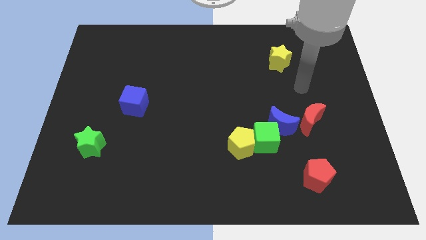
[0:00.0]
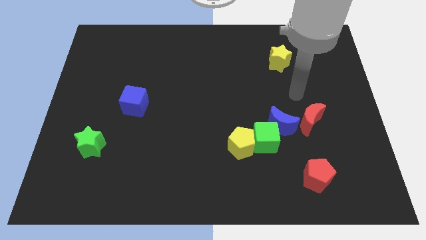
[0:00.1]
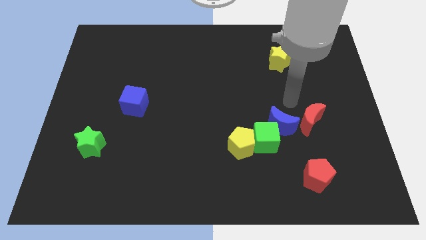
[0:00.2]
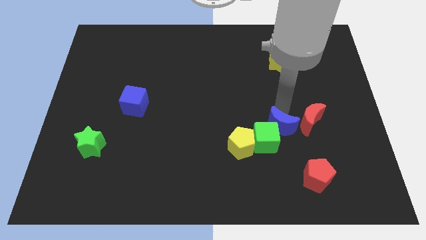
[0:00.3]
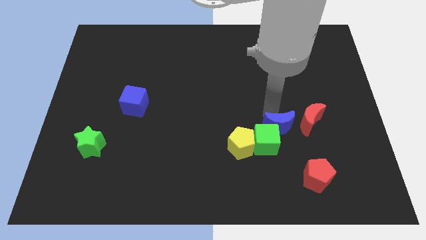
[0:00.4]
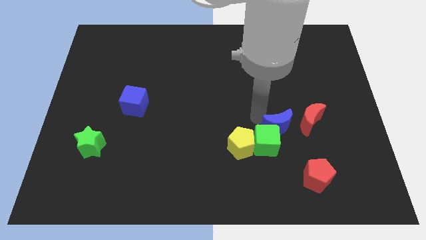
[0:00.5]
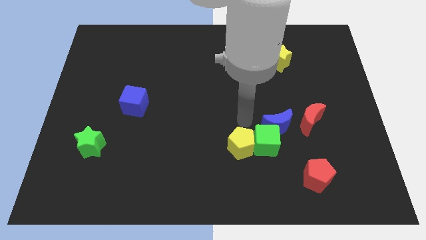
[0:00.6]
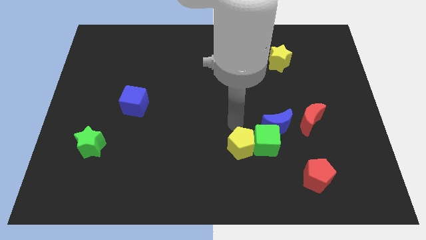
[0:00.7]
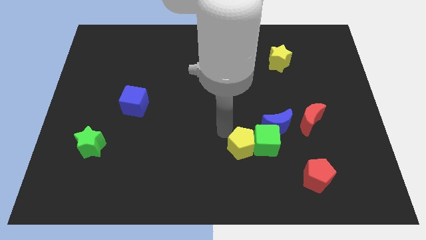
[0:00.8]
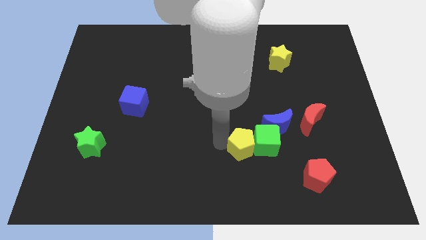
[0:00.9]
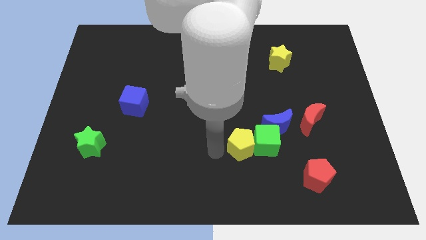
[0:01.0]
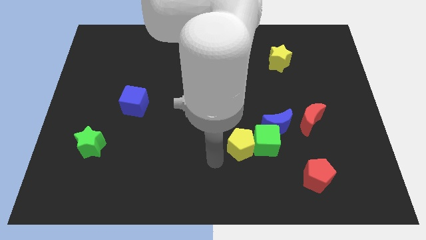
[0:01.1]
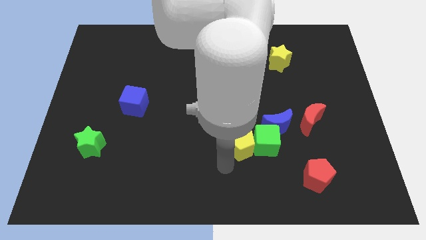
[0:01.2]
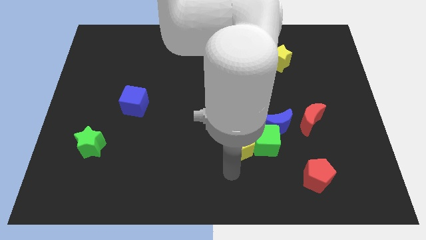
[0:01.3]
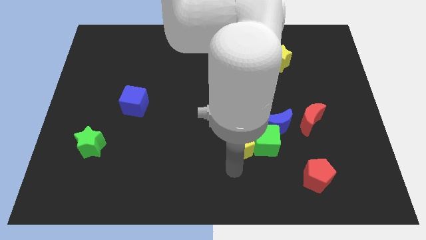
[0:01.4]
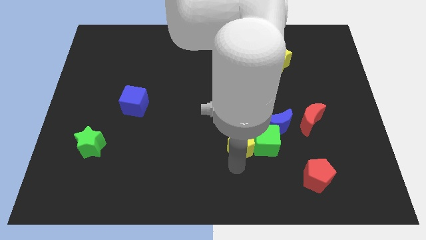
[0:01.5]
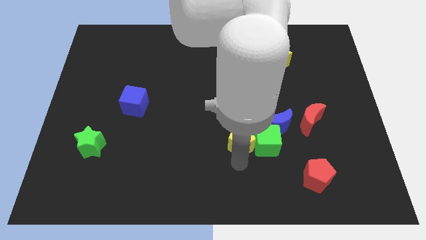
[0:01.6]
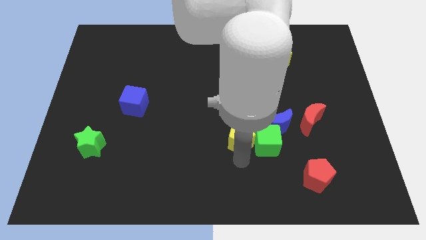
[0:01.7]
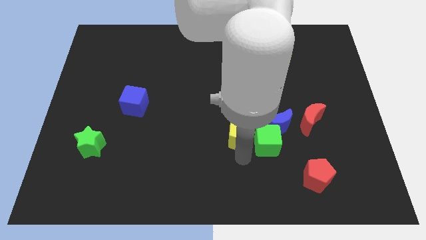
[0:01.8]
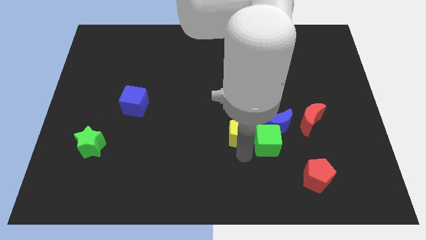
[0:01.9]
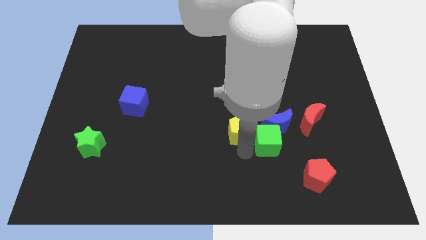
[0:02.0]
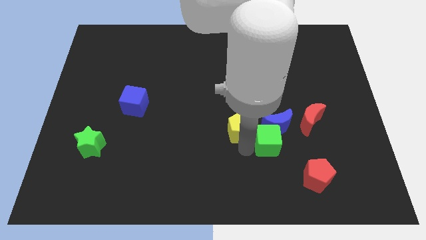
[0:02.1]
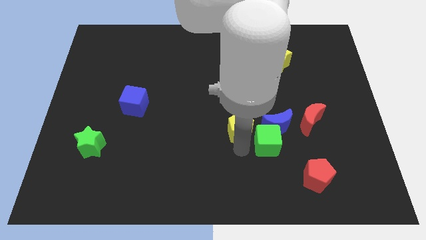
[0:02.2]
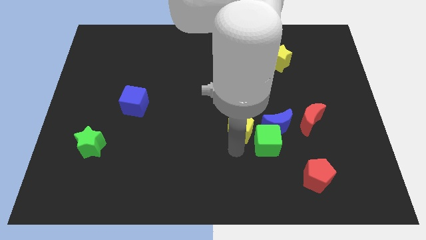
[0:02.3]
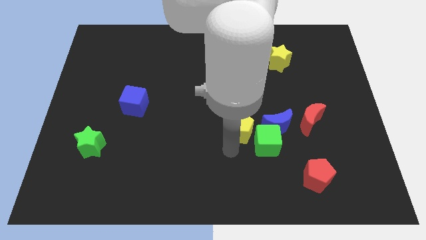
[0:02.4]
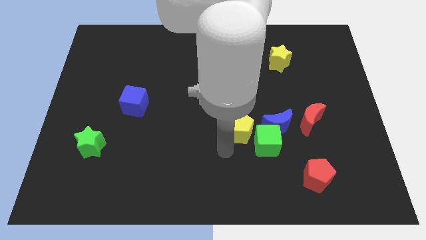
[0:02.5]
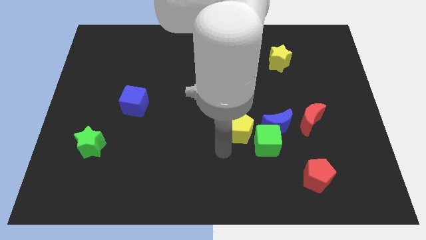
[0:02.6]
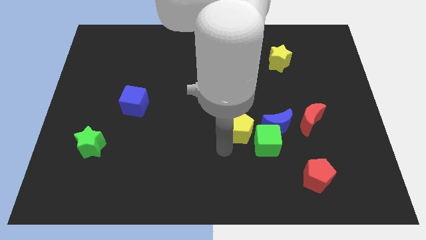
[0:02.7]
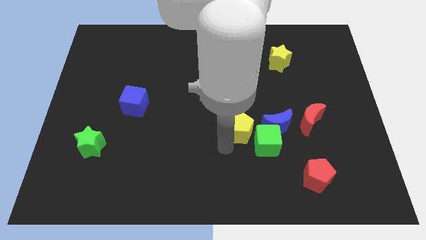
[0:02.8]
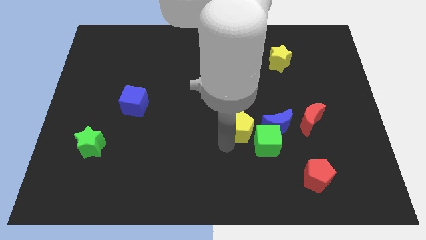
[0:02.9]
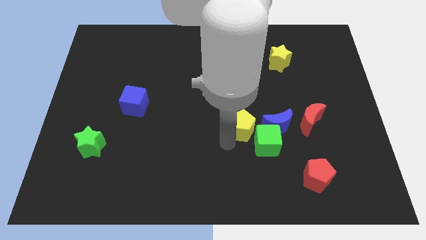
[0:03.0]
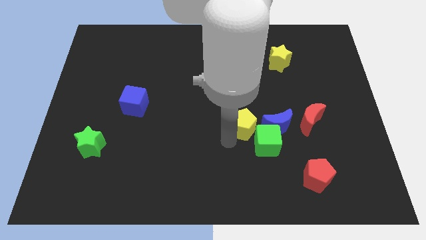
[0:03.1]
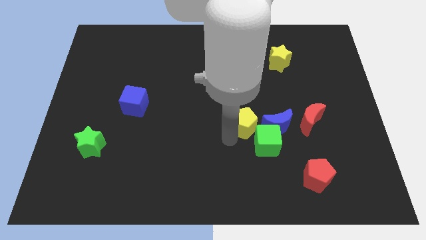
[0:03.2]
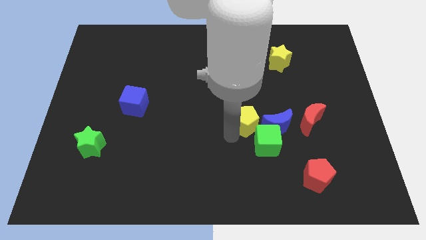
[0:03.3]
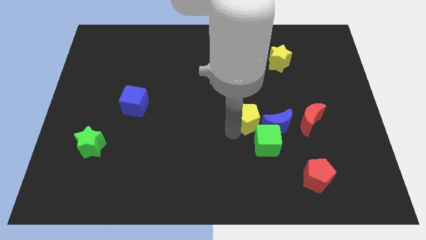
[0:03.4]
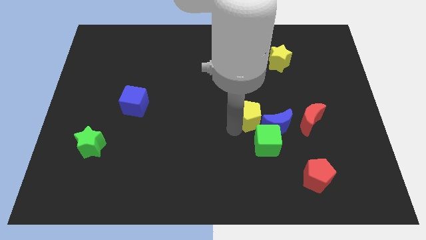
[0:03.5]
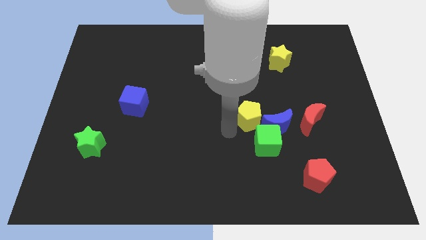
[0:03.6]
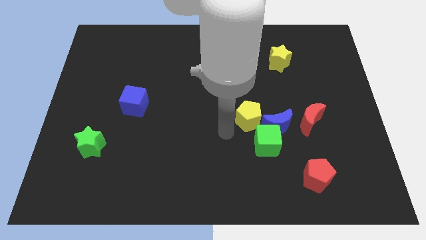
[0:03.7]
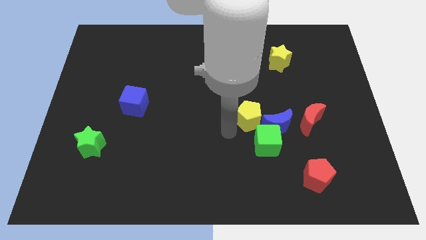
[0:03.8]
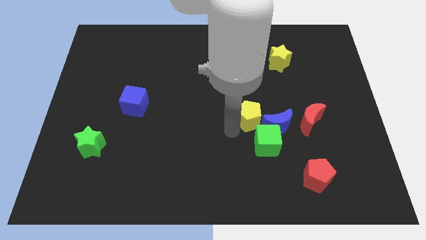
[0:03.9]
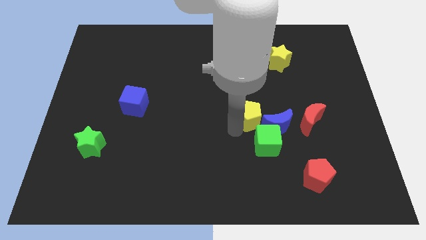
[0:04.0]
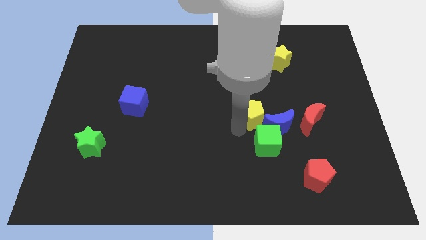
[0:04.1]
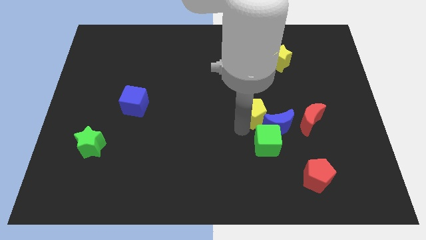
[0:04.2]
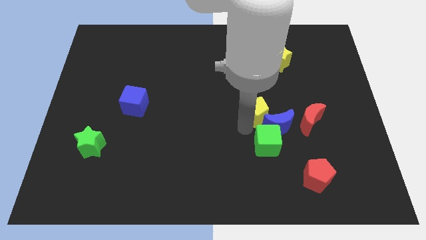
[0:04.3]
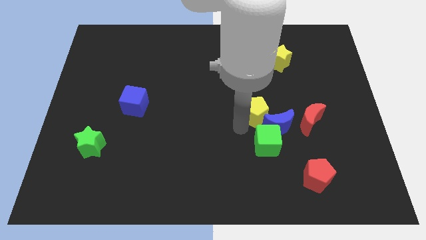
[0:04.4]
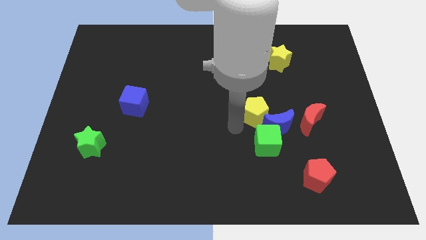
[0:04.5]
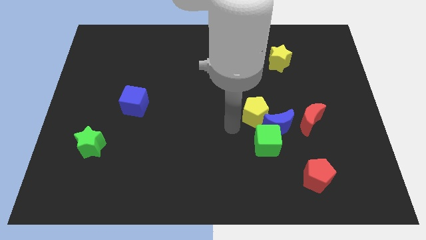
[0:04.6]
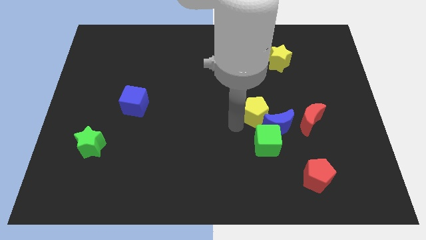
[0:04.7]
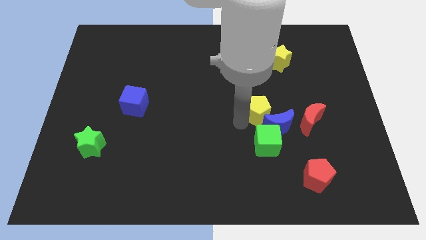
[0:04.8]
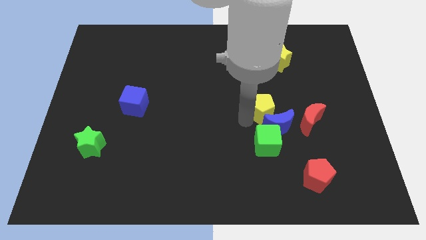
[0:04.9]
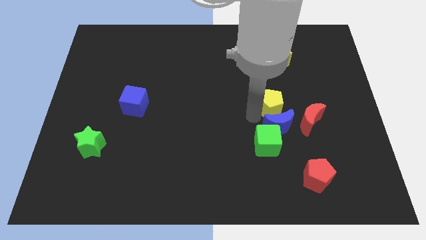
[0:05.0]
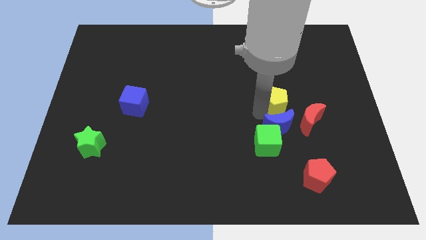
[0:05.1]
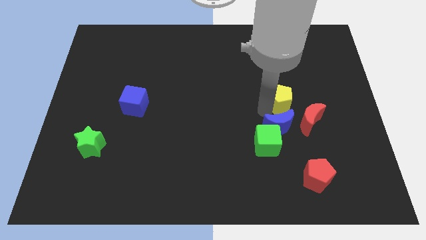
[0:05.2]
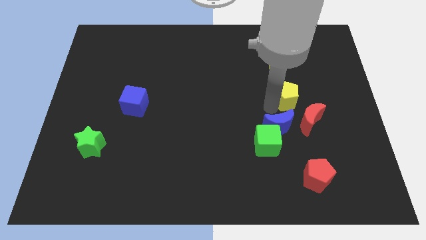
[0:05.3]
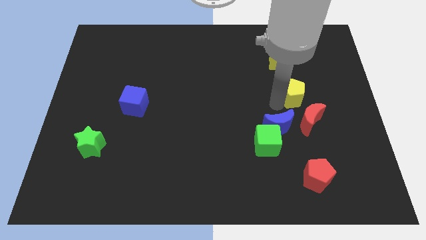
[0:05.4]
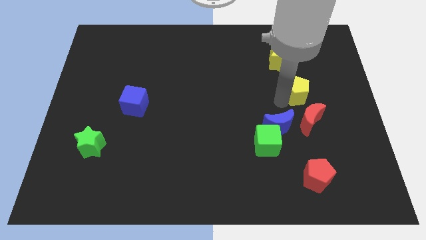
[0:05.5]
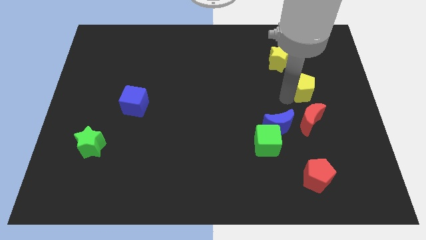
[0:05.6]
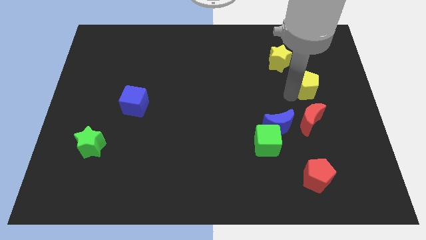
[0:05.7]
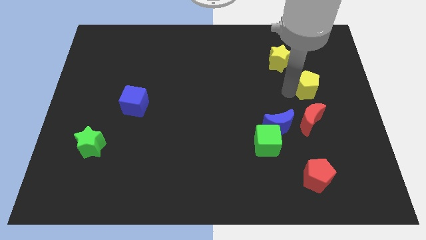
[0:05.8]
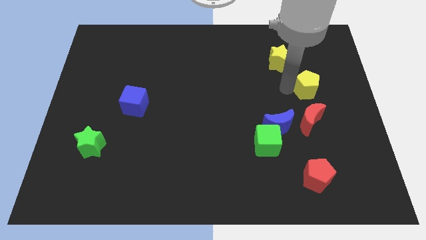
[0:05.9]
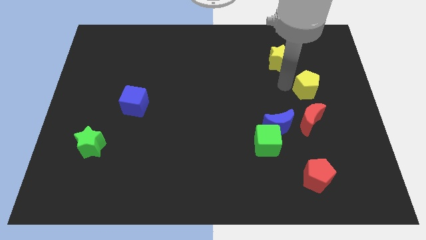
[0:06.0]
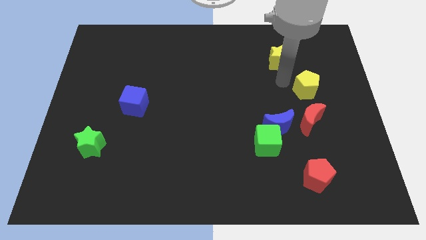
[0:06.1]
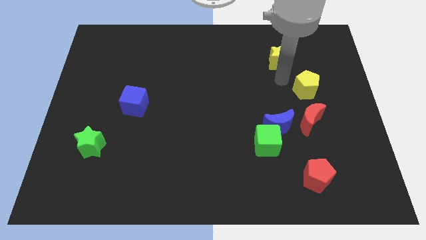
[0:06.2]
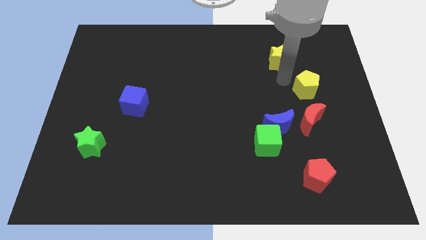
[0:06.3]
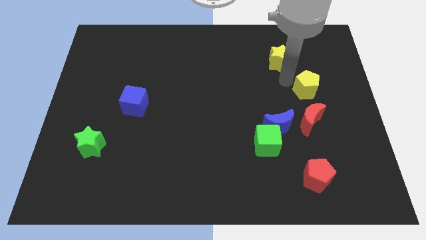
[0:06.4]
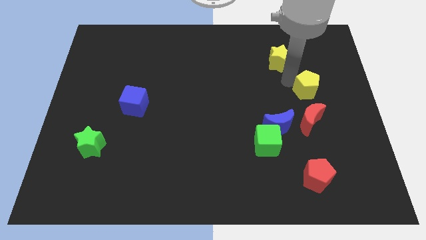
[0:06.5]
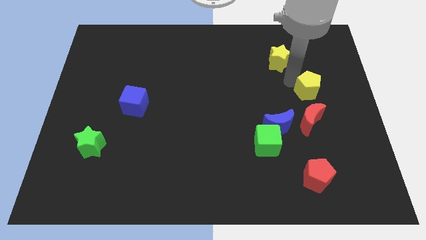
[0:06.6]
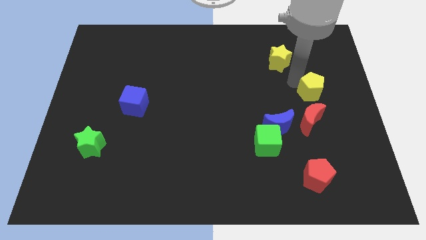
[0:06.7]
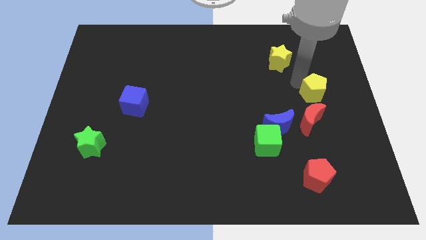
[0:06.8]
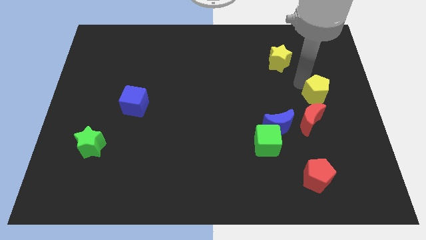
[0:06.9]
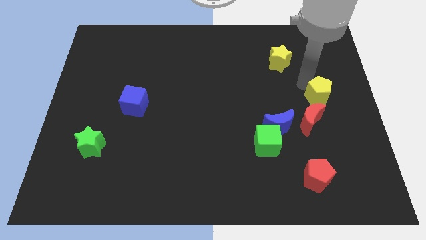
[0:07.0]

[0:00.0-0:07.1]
put the yellow pentagon to the right side of the board
